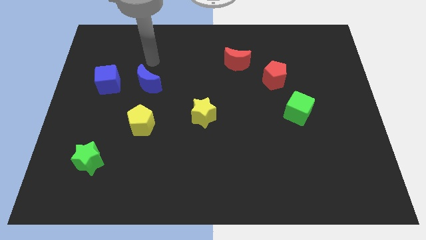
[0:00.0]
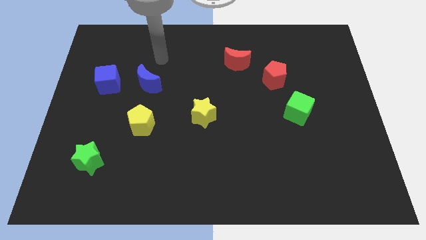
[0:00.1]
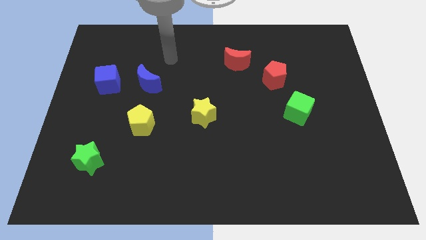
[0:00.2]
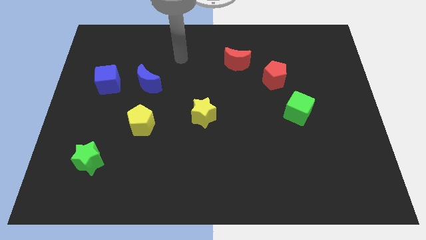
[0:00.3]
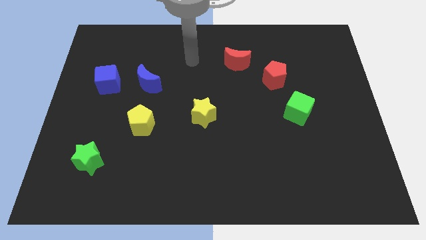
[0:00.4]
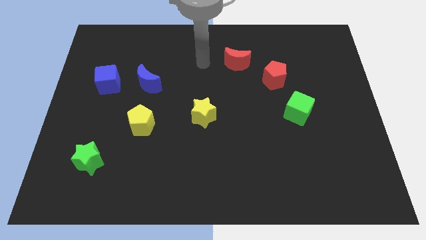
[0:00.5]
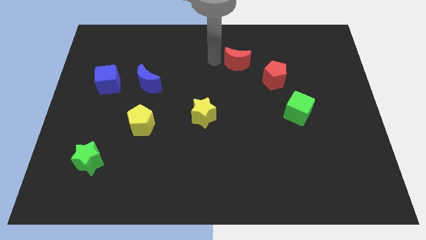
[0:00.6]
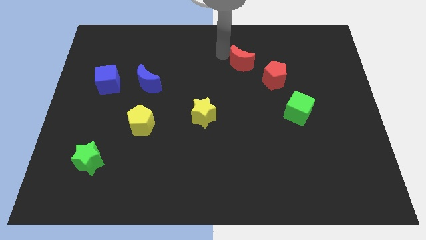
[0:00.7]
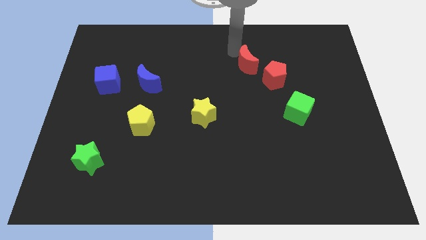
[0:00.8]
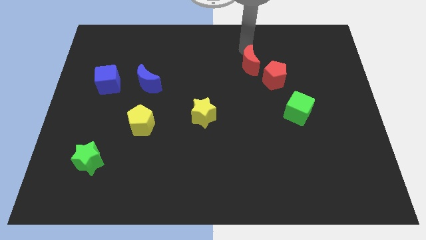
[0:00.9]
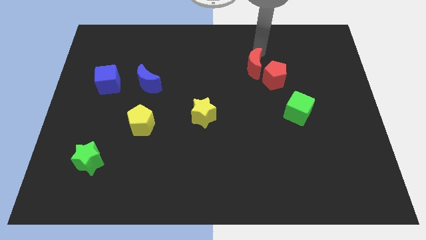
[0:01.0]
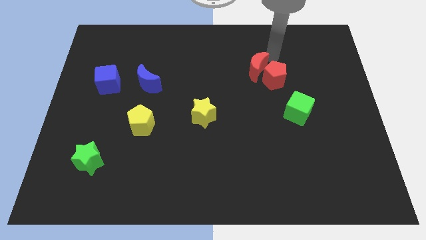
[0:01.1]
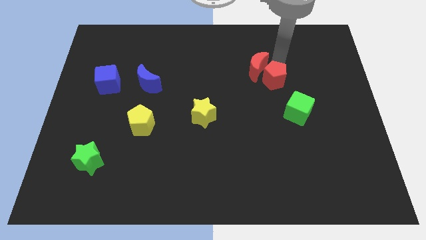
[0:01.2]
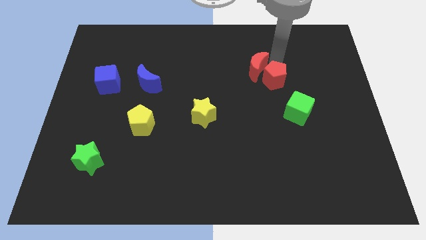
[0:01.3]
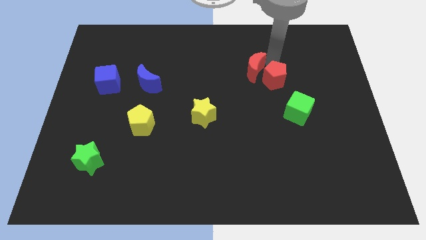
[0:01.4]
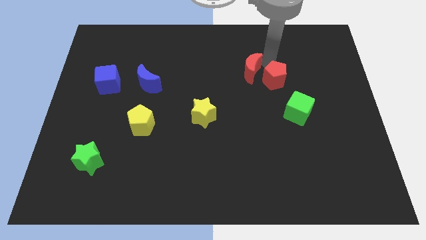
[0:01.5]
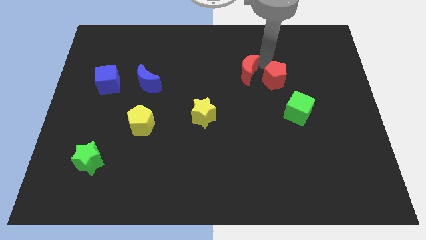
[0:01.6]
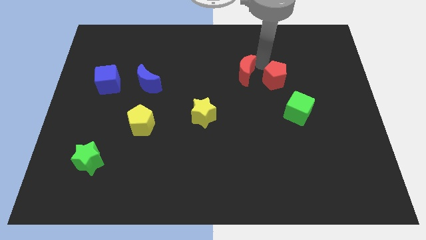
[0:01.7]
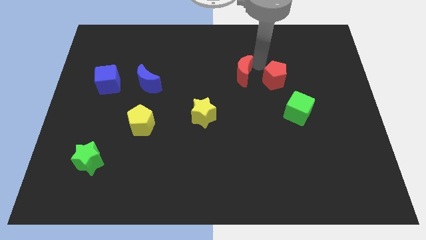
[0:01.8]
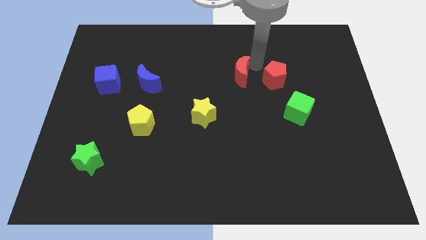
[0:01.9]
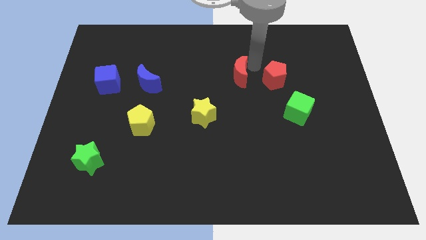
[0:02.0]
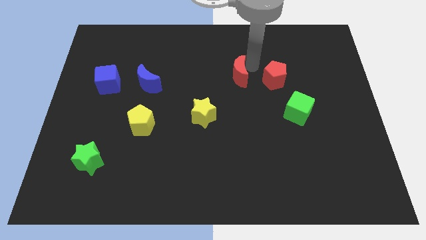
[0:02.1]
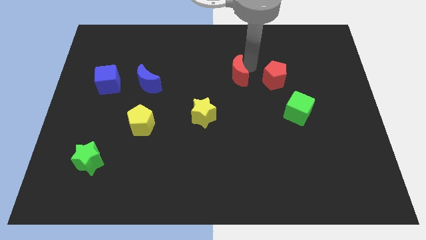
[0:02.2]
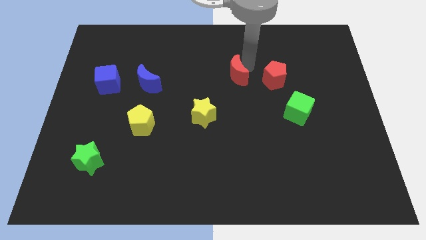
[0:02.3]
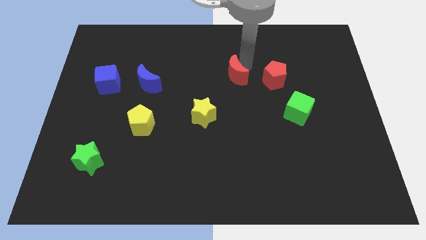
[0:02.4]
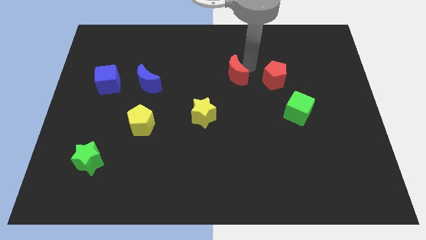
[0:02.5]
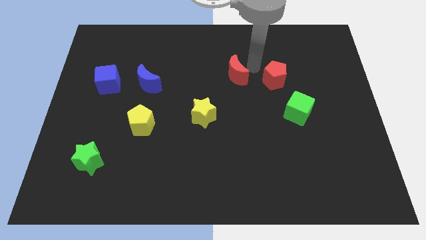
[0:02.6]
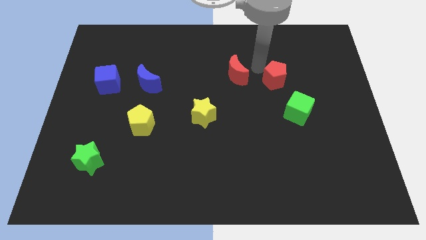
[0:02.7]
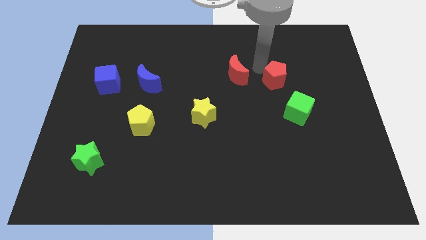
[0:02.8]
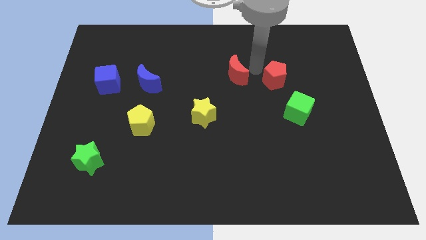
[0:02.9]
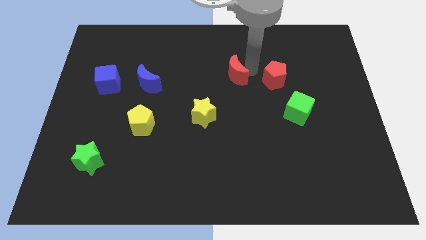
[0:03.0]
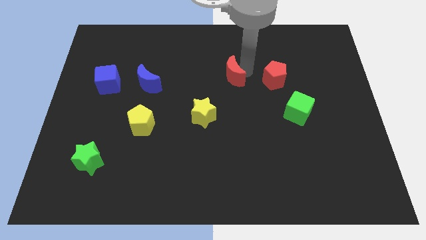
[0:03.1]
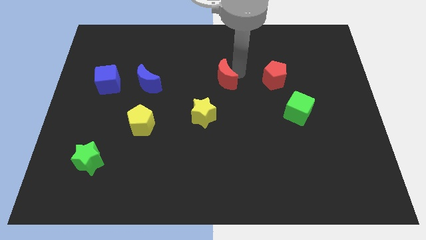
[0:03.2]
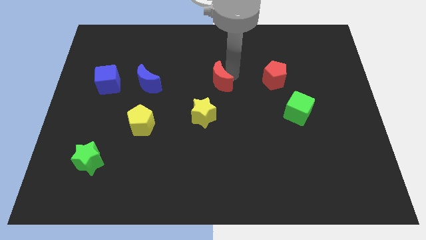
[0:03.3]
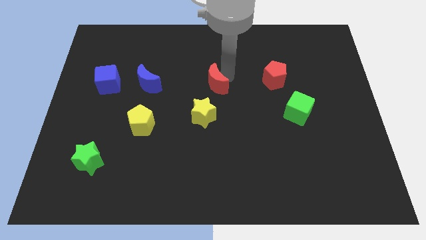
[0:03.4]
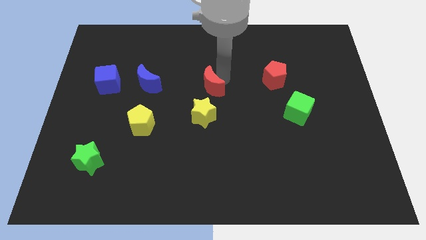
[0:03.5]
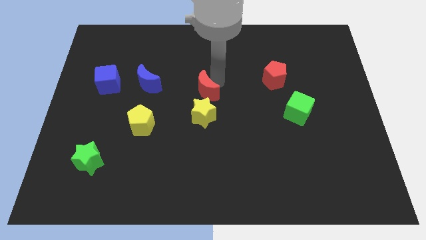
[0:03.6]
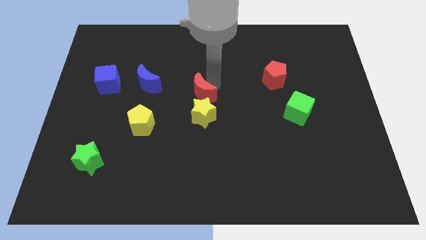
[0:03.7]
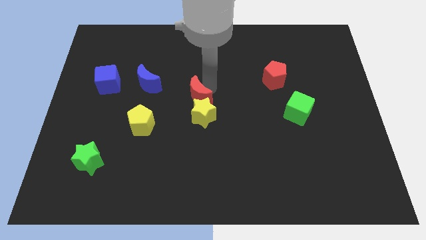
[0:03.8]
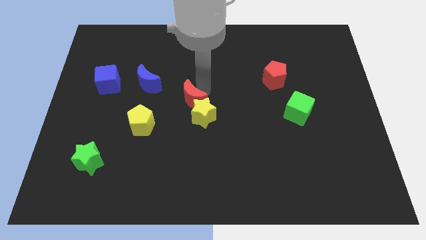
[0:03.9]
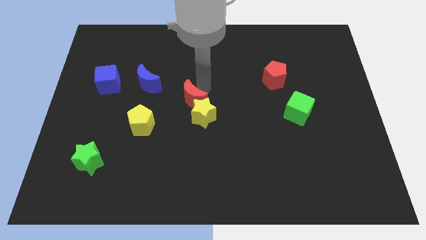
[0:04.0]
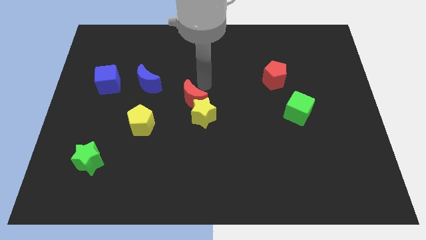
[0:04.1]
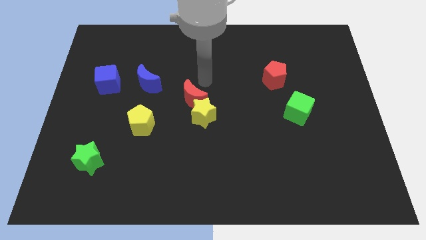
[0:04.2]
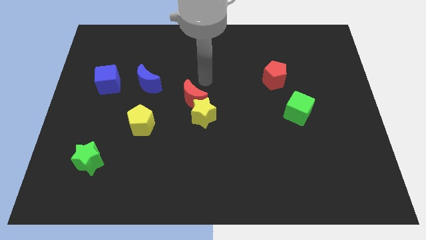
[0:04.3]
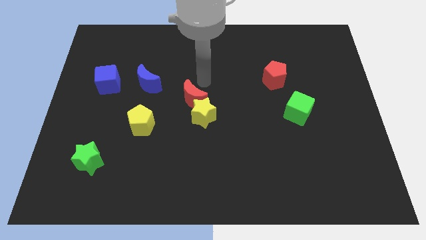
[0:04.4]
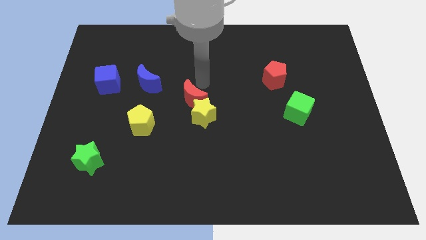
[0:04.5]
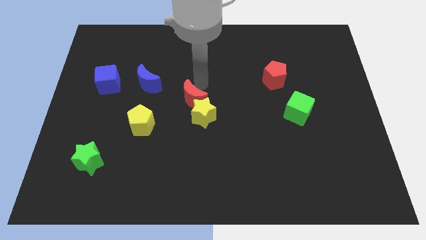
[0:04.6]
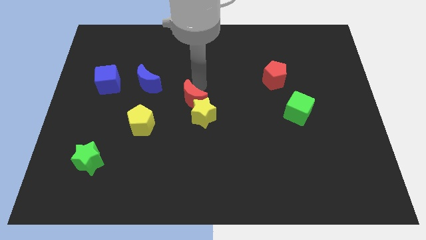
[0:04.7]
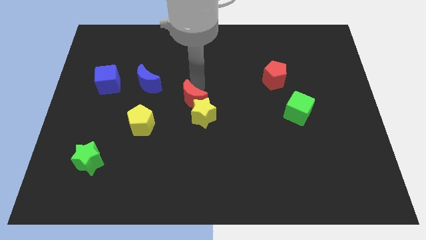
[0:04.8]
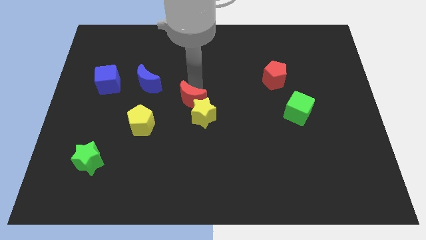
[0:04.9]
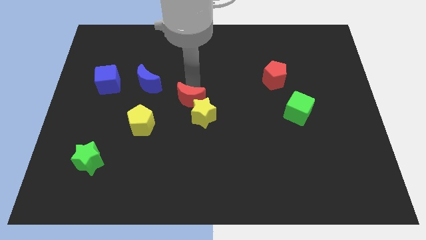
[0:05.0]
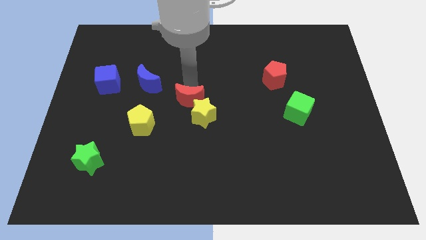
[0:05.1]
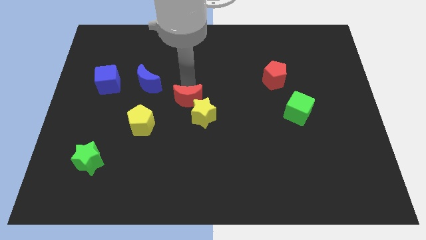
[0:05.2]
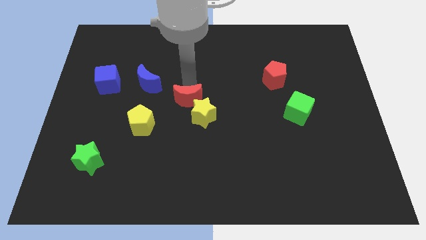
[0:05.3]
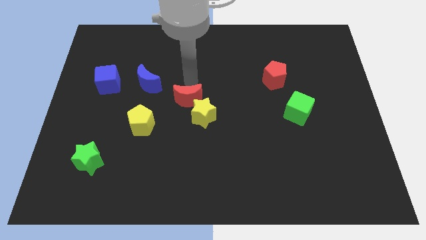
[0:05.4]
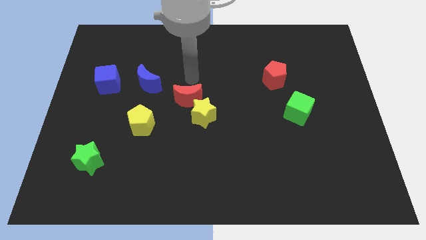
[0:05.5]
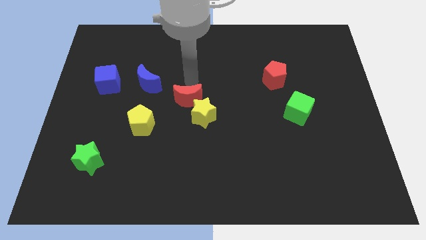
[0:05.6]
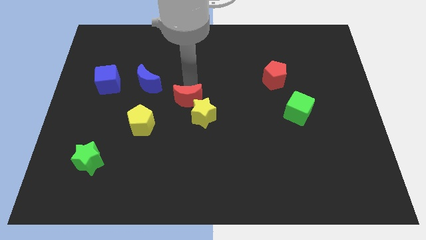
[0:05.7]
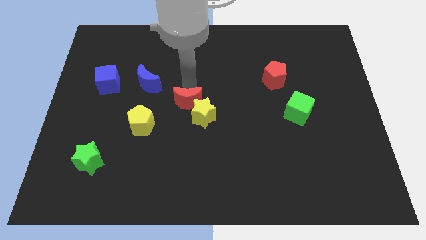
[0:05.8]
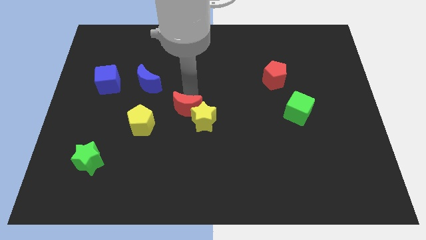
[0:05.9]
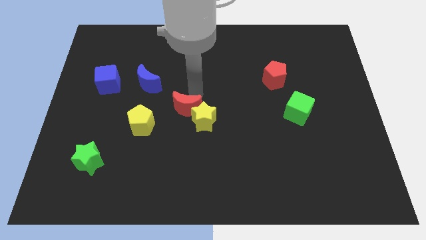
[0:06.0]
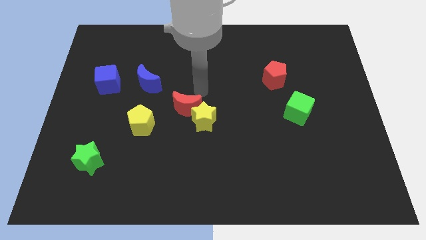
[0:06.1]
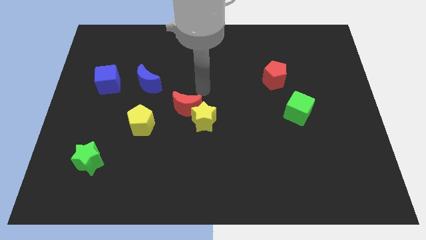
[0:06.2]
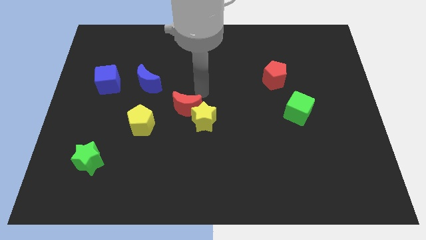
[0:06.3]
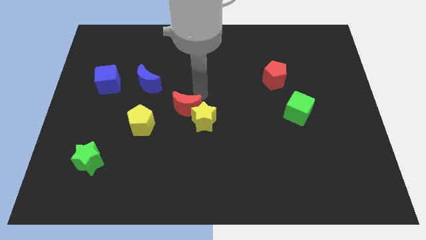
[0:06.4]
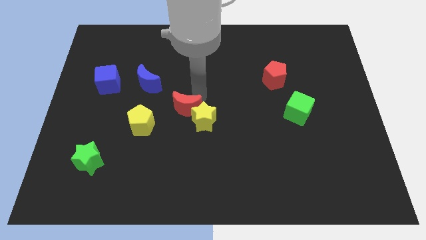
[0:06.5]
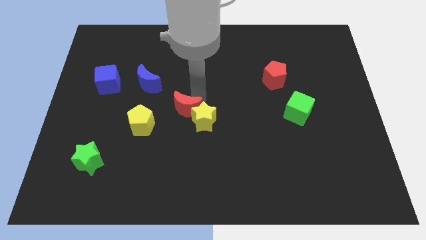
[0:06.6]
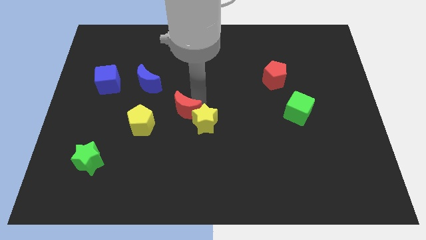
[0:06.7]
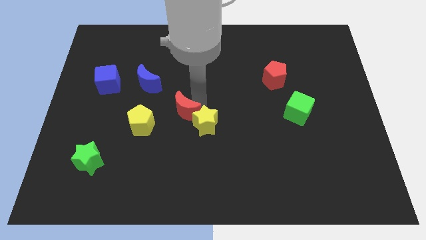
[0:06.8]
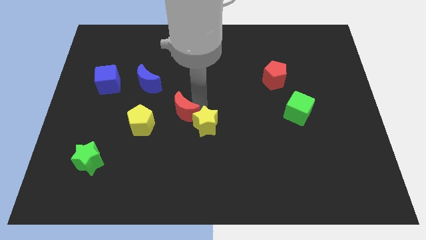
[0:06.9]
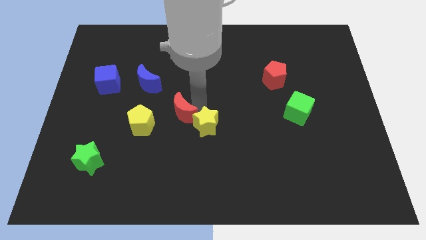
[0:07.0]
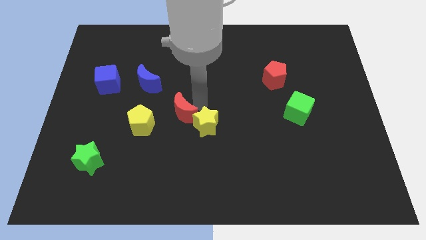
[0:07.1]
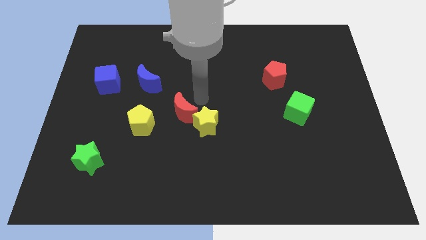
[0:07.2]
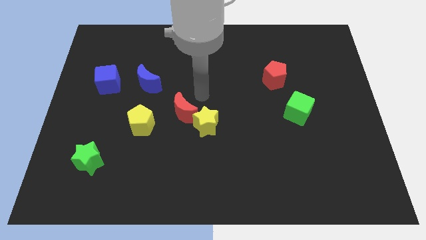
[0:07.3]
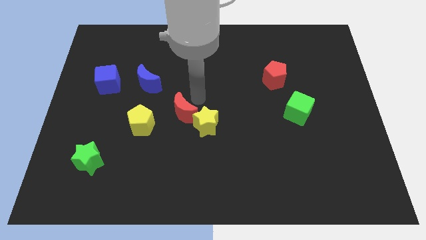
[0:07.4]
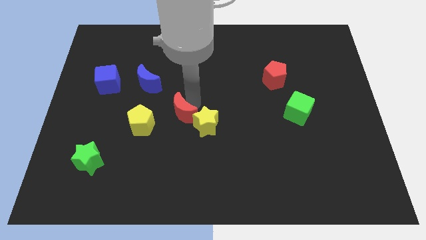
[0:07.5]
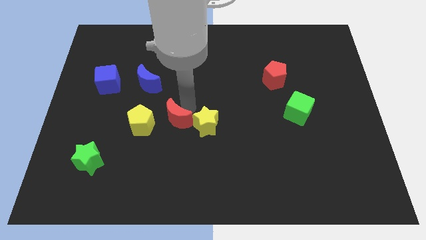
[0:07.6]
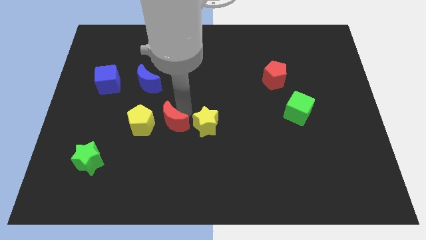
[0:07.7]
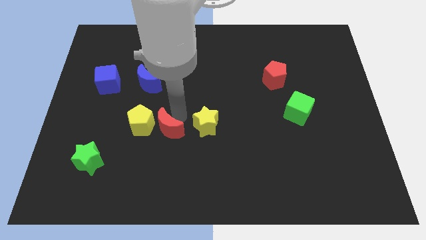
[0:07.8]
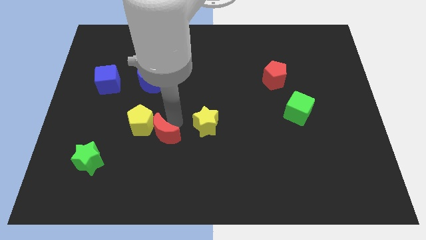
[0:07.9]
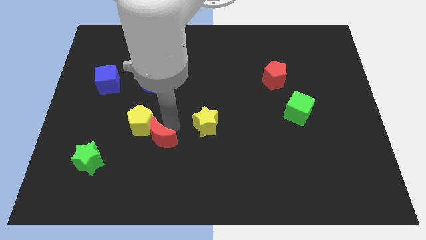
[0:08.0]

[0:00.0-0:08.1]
move the red moon below the yellow pentagon
